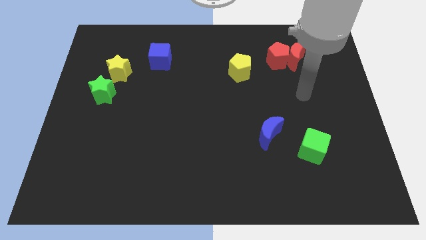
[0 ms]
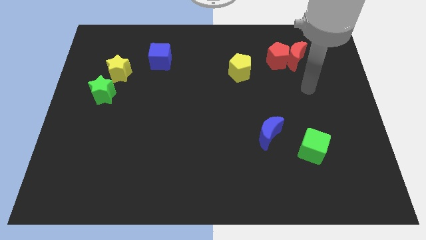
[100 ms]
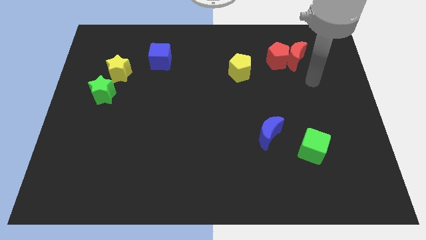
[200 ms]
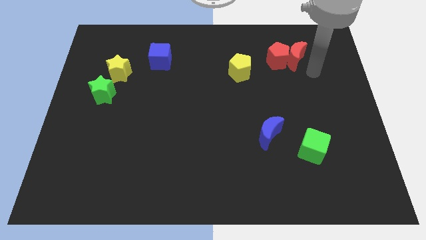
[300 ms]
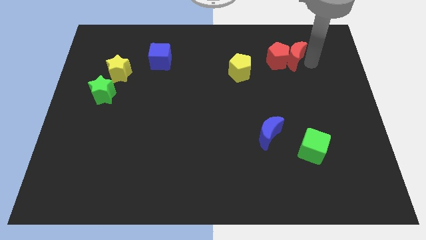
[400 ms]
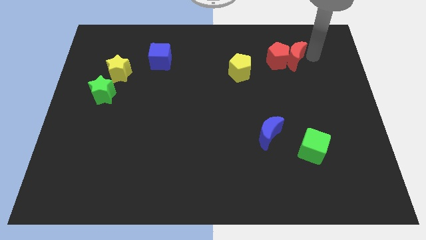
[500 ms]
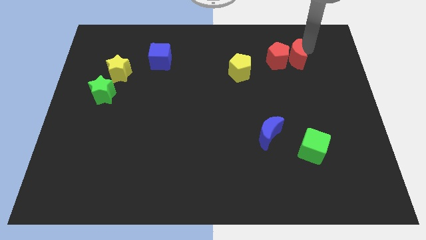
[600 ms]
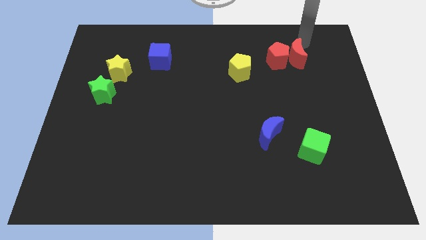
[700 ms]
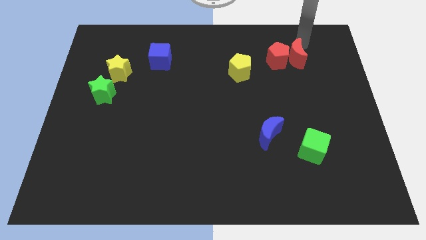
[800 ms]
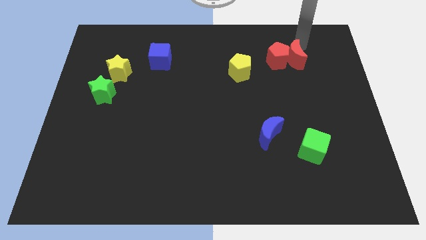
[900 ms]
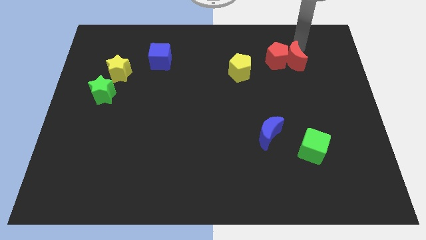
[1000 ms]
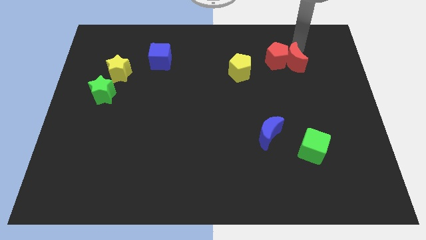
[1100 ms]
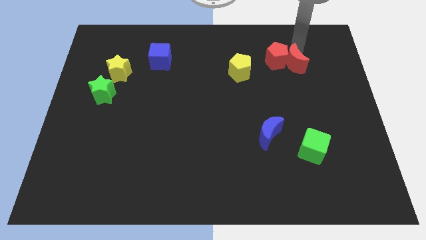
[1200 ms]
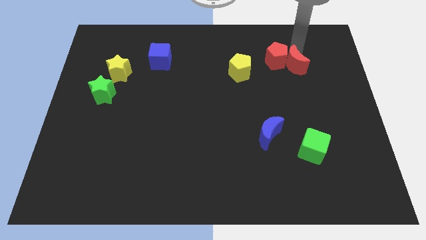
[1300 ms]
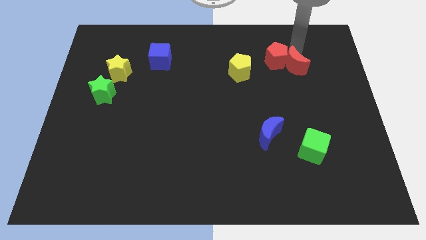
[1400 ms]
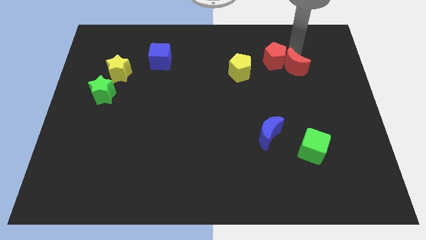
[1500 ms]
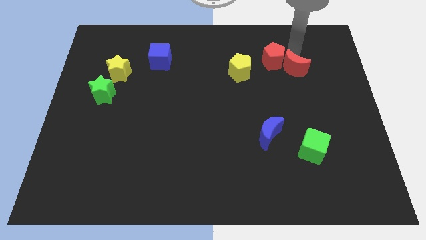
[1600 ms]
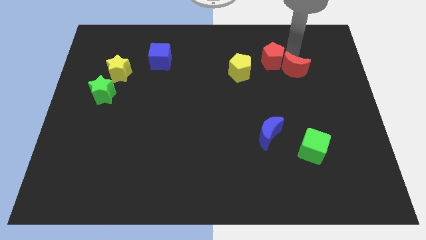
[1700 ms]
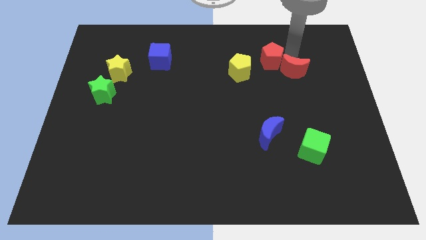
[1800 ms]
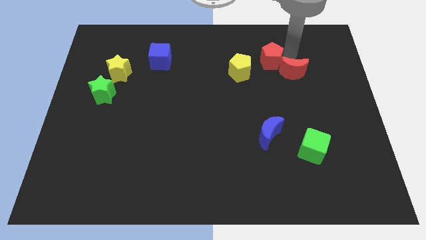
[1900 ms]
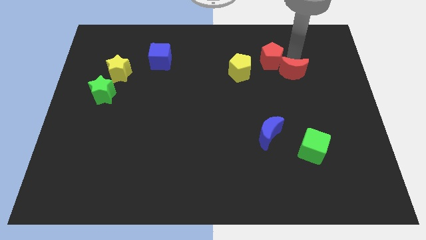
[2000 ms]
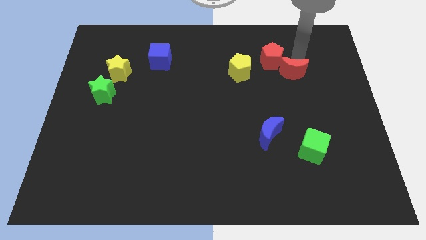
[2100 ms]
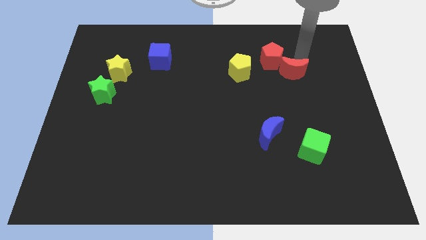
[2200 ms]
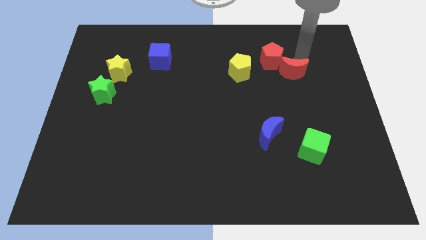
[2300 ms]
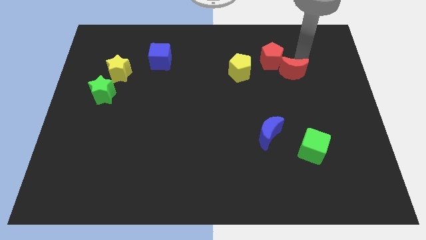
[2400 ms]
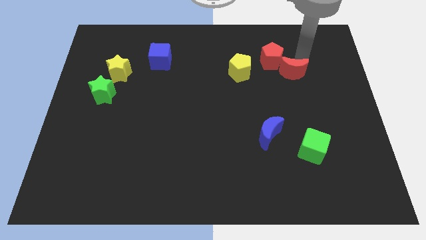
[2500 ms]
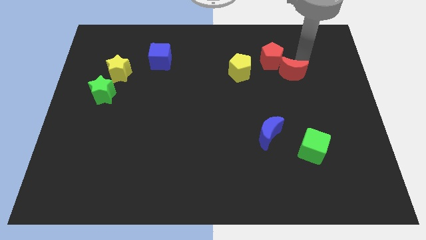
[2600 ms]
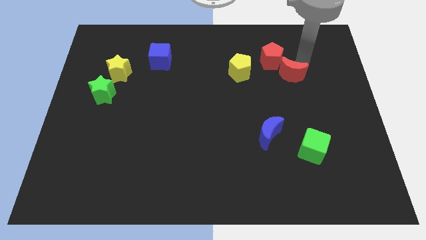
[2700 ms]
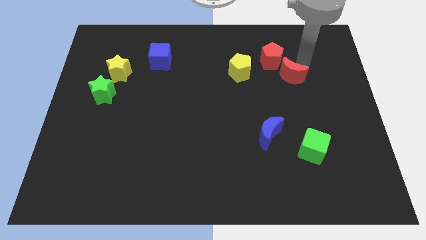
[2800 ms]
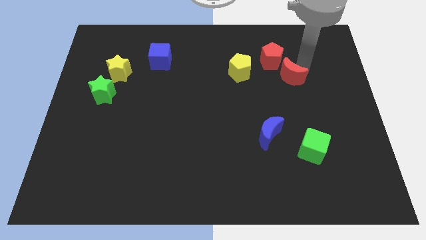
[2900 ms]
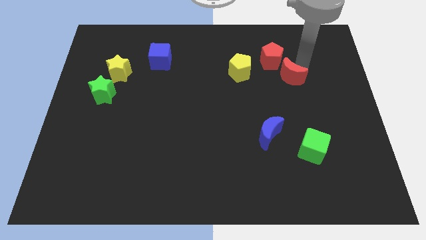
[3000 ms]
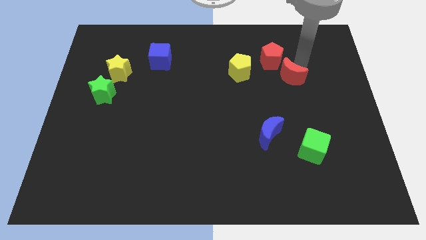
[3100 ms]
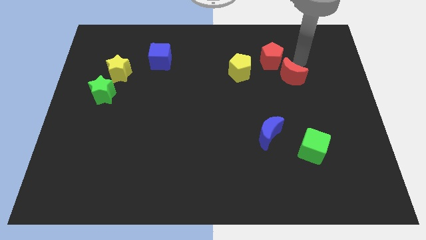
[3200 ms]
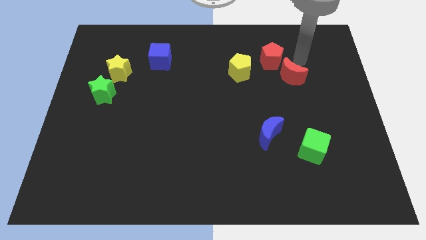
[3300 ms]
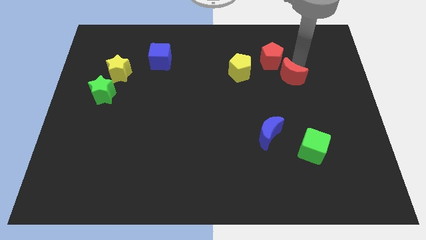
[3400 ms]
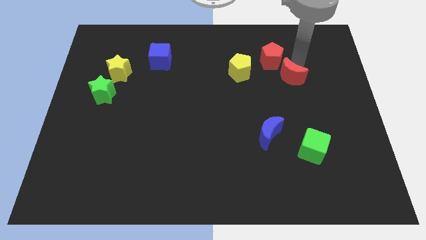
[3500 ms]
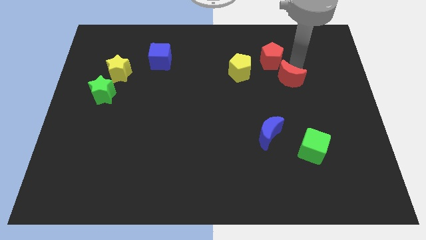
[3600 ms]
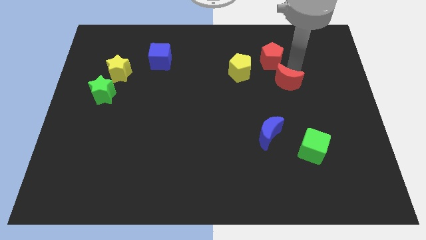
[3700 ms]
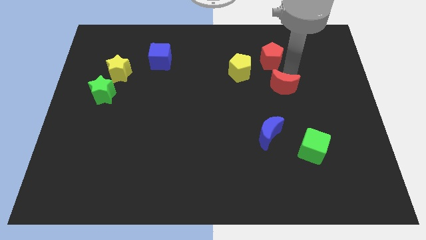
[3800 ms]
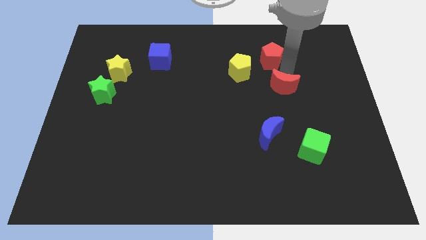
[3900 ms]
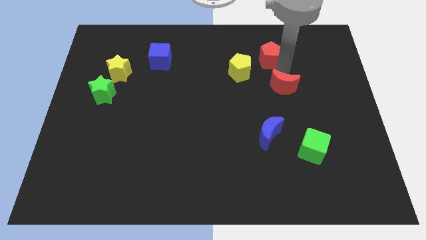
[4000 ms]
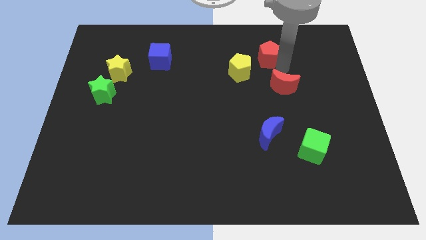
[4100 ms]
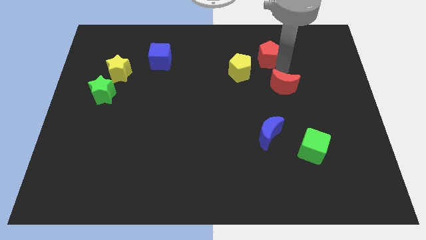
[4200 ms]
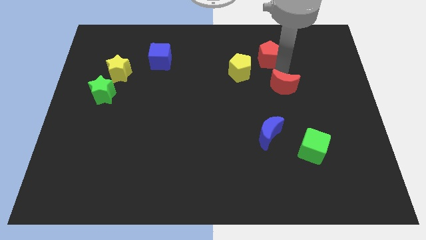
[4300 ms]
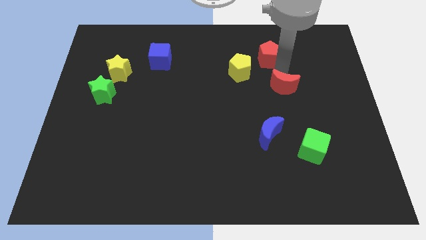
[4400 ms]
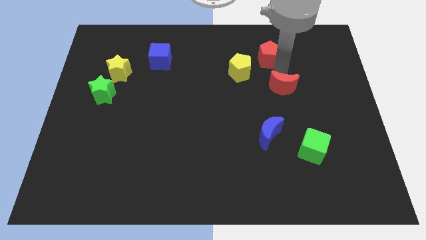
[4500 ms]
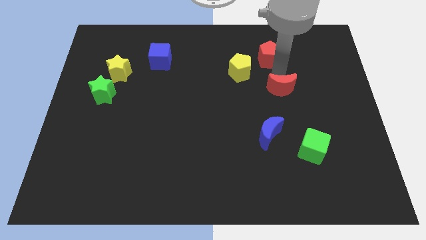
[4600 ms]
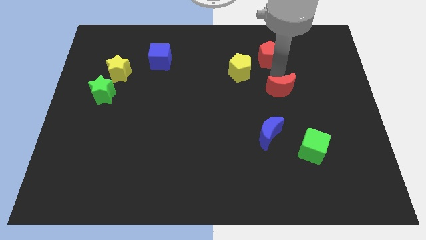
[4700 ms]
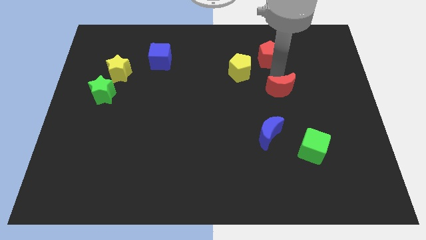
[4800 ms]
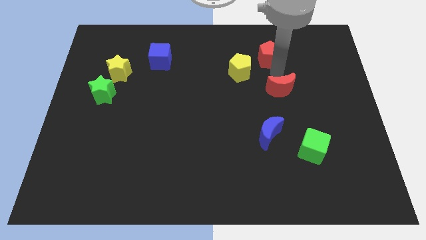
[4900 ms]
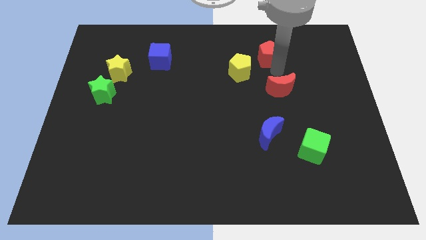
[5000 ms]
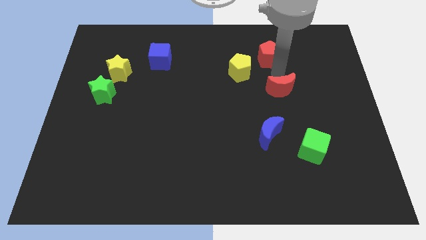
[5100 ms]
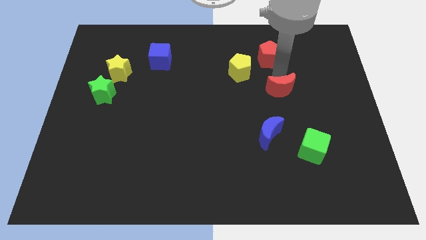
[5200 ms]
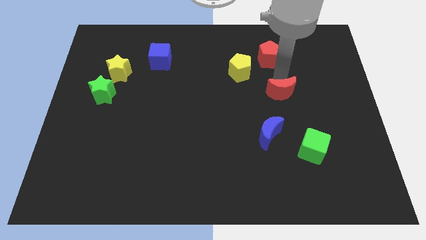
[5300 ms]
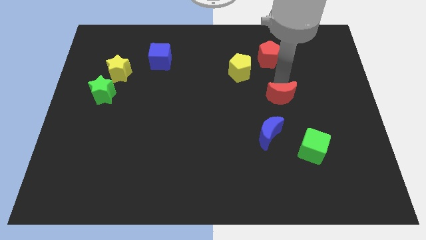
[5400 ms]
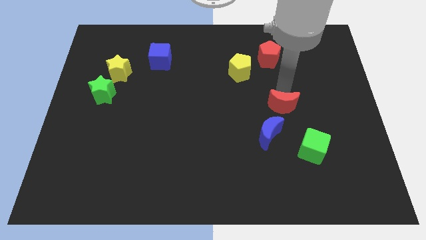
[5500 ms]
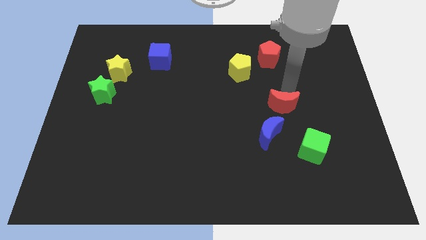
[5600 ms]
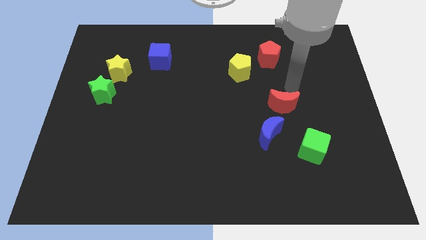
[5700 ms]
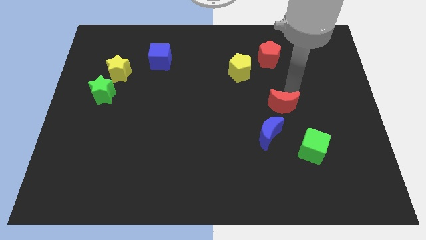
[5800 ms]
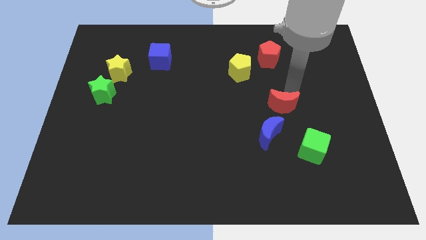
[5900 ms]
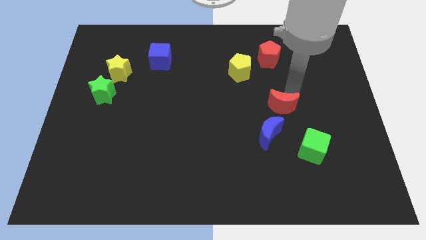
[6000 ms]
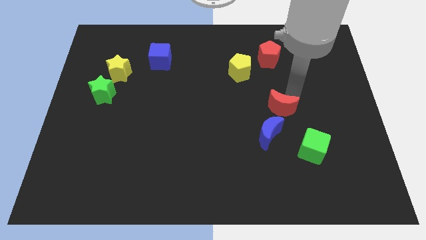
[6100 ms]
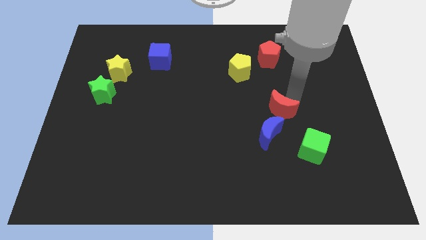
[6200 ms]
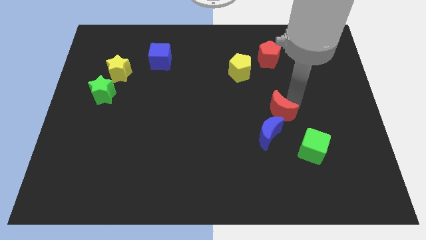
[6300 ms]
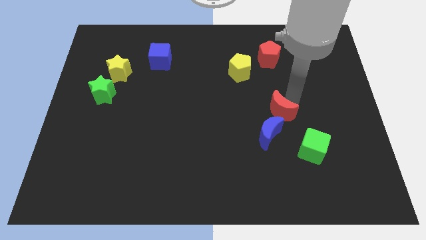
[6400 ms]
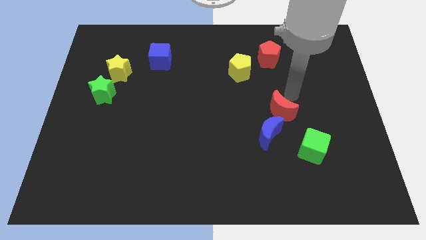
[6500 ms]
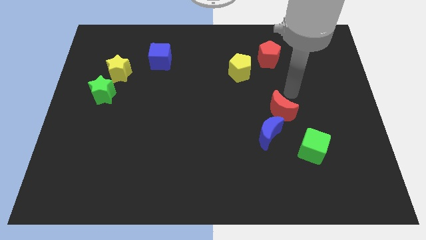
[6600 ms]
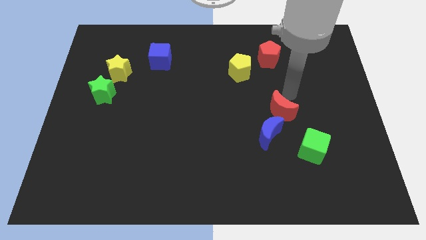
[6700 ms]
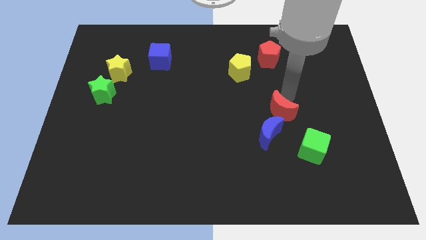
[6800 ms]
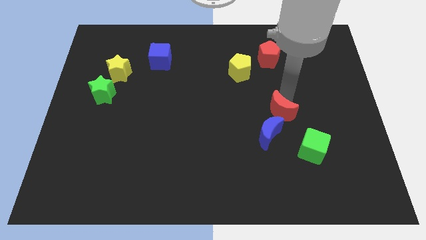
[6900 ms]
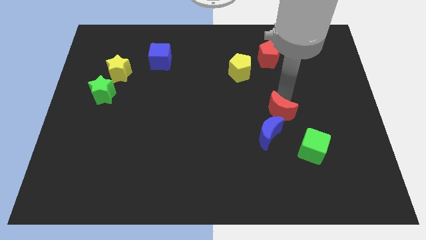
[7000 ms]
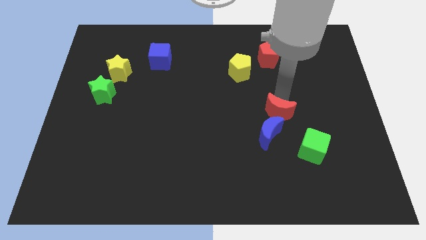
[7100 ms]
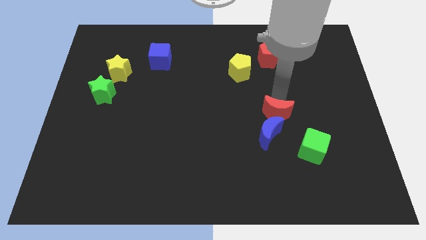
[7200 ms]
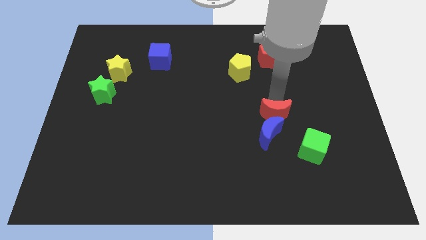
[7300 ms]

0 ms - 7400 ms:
push the red moon close to the blue moon

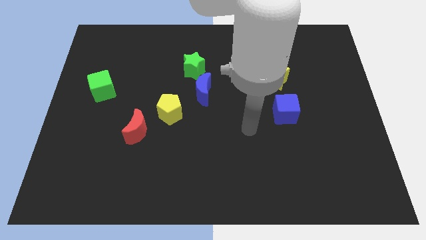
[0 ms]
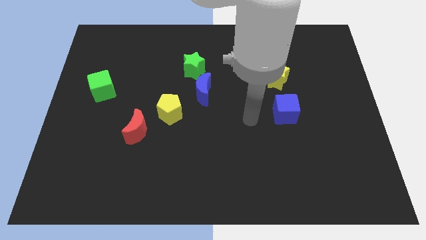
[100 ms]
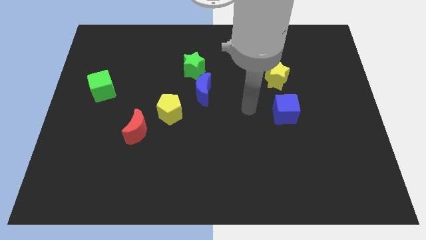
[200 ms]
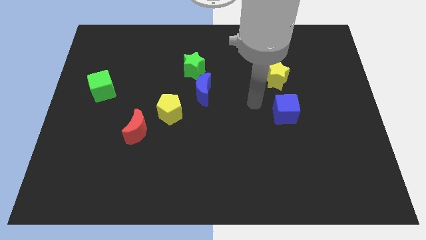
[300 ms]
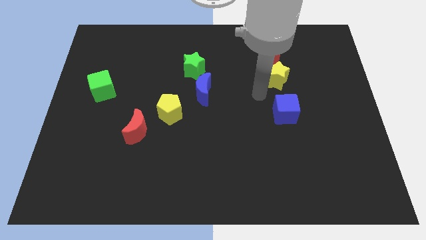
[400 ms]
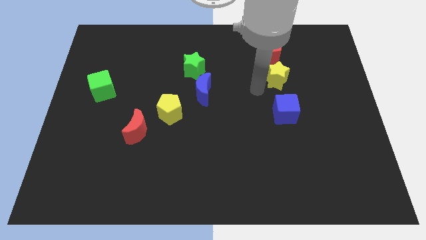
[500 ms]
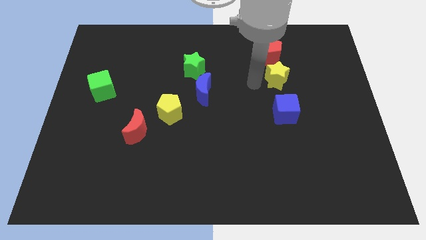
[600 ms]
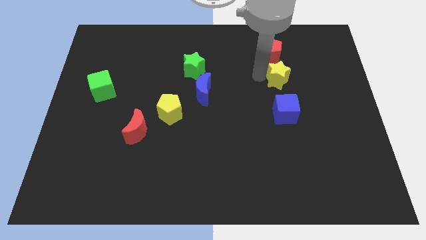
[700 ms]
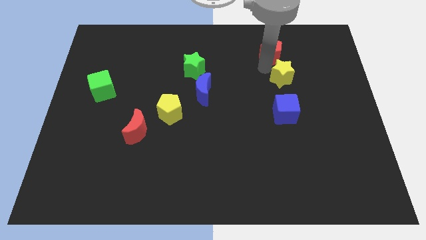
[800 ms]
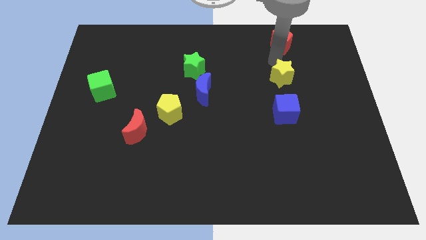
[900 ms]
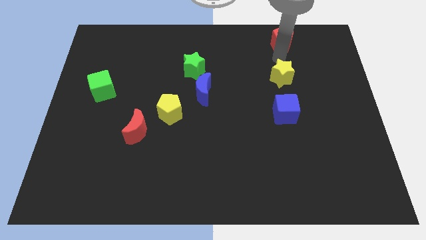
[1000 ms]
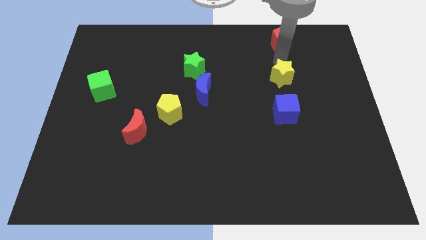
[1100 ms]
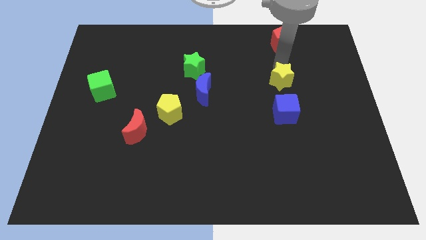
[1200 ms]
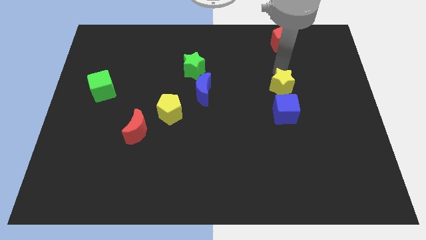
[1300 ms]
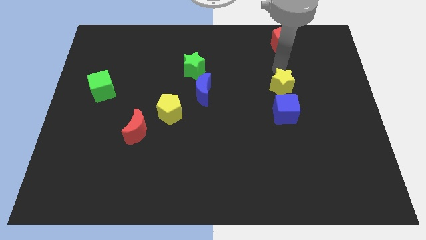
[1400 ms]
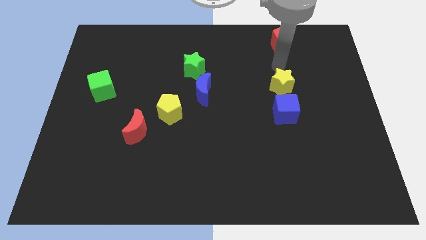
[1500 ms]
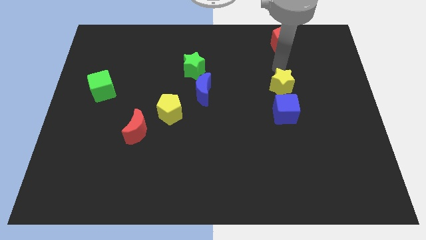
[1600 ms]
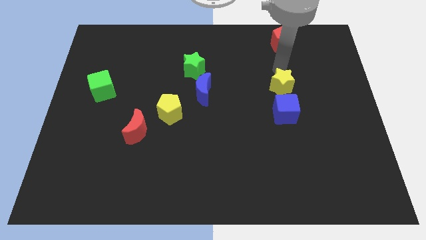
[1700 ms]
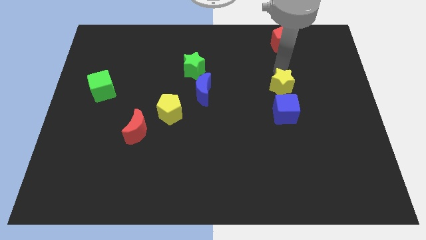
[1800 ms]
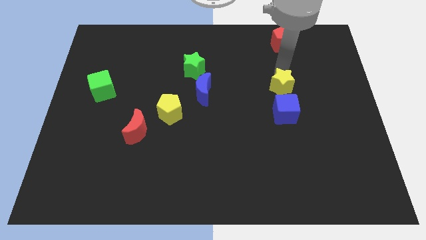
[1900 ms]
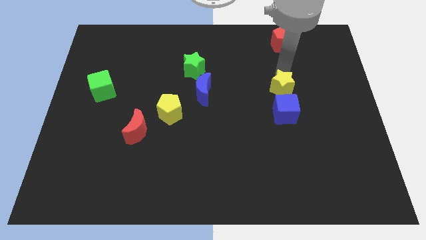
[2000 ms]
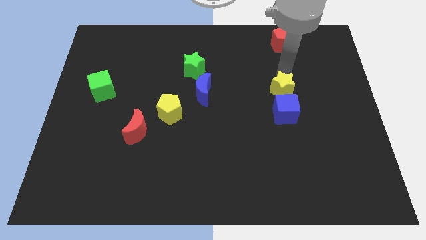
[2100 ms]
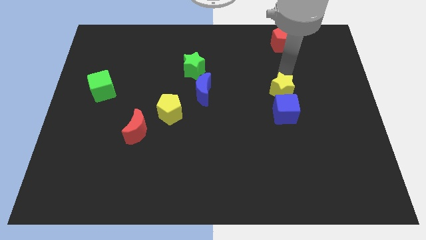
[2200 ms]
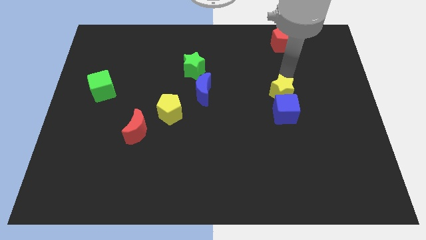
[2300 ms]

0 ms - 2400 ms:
move the yellow star towards the blue cube
